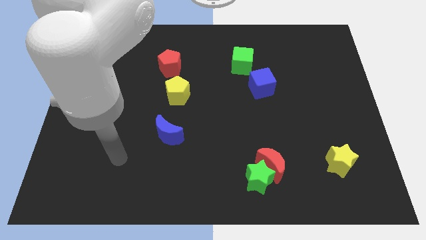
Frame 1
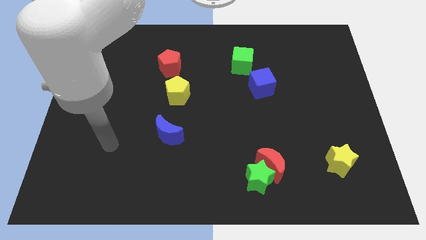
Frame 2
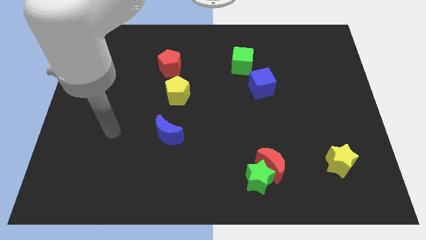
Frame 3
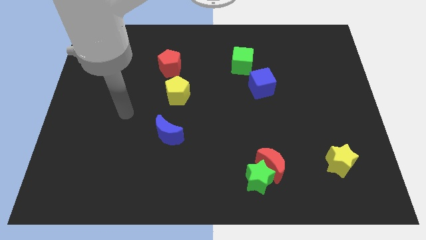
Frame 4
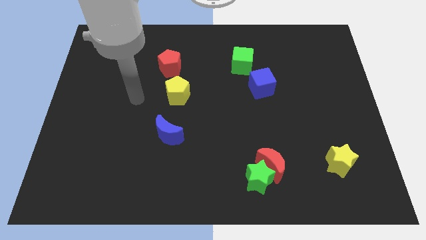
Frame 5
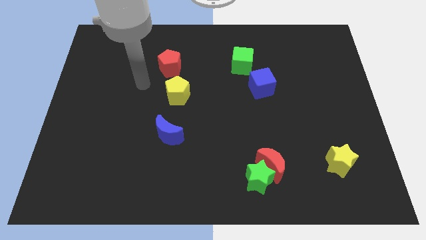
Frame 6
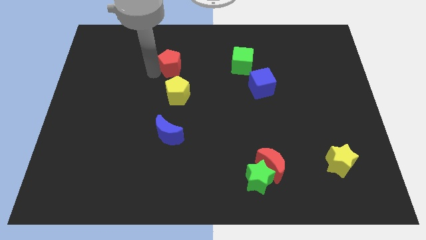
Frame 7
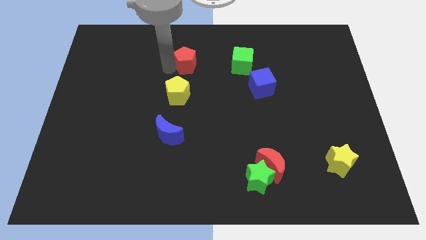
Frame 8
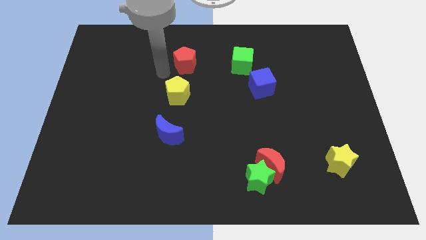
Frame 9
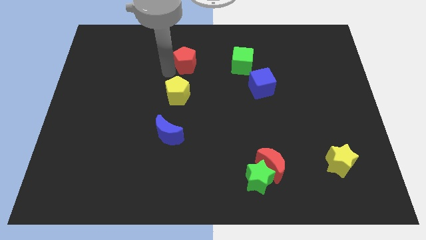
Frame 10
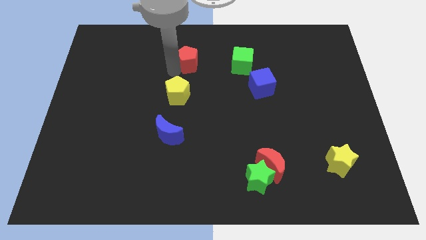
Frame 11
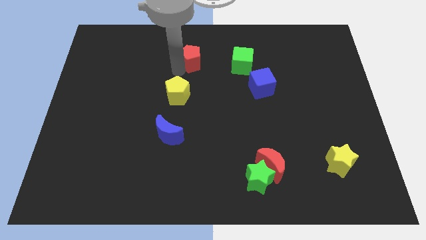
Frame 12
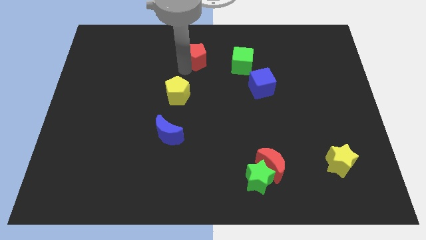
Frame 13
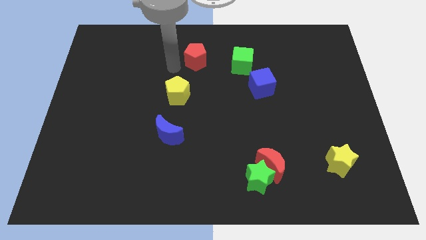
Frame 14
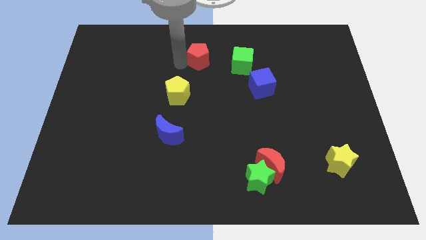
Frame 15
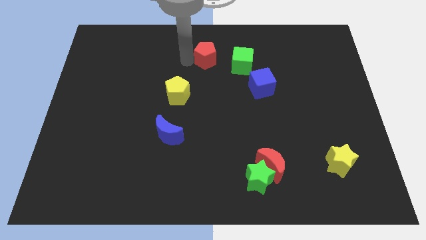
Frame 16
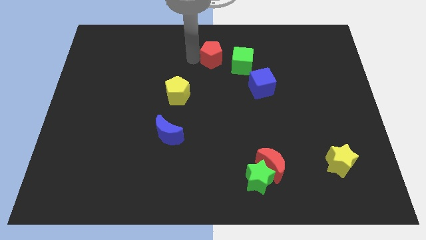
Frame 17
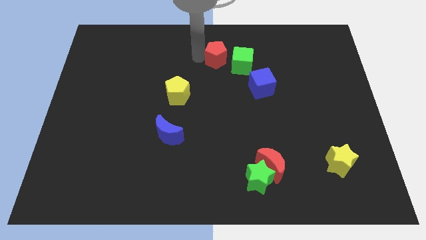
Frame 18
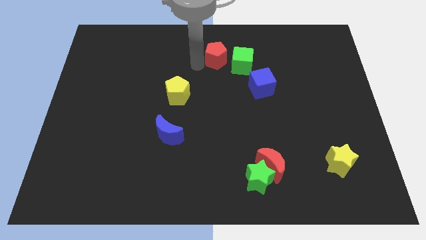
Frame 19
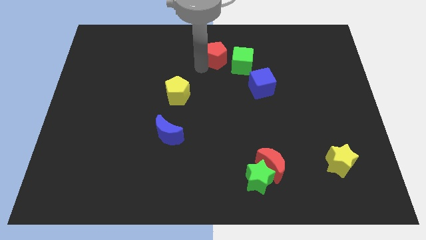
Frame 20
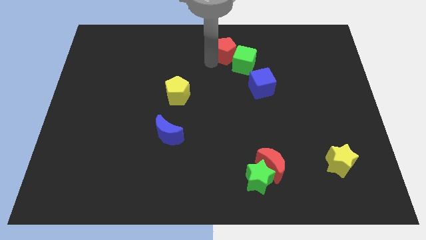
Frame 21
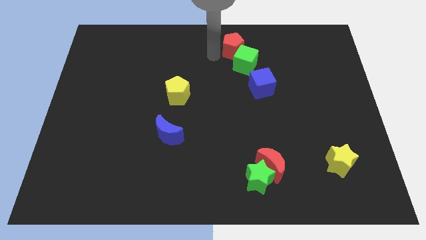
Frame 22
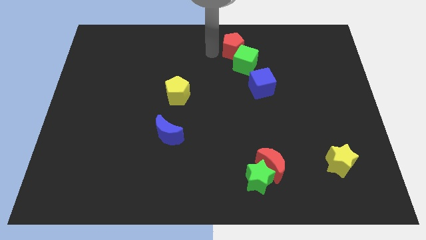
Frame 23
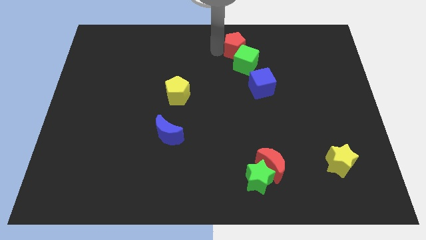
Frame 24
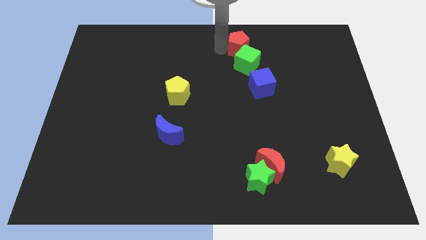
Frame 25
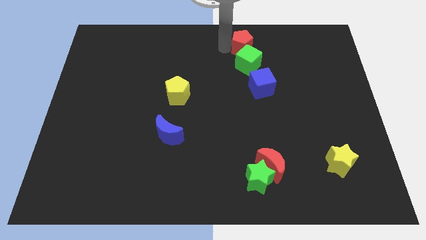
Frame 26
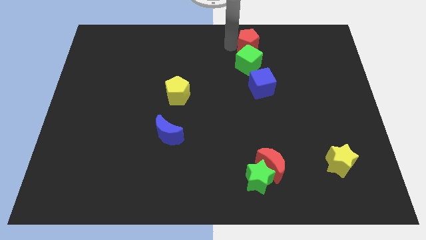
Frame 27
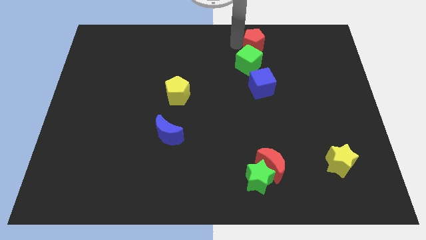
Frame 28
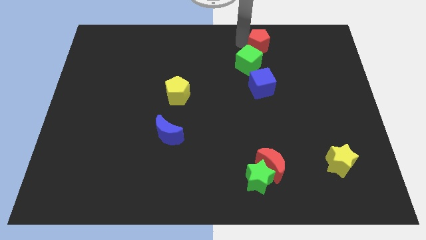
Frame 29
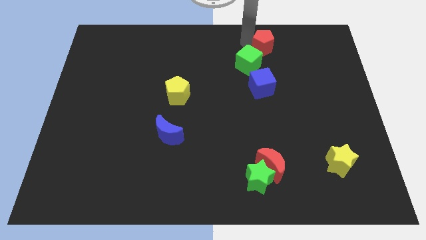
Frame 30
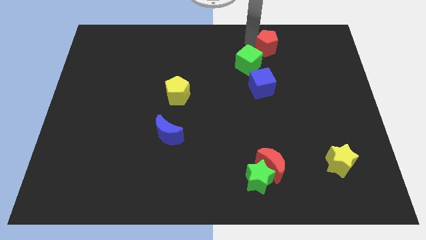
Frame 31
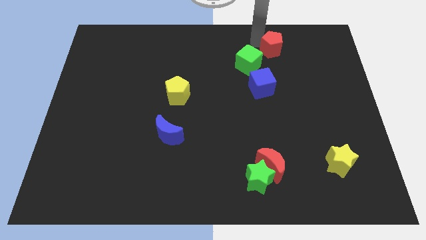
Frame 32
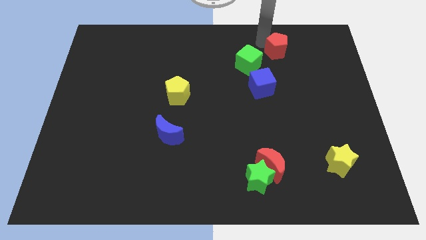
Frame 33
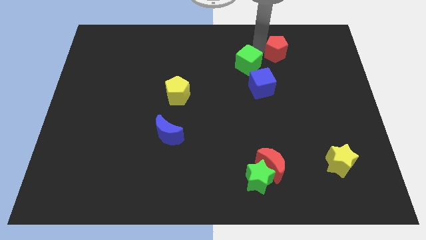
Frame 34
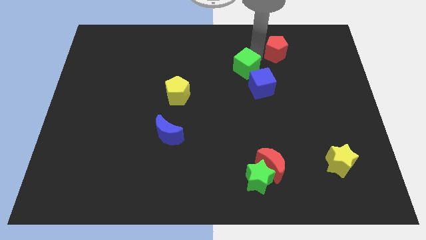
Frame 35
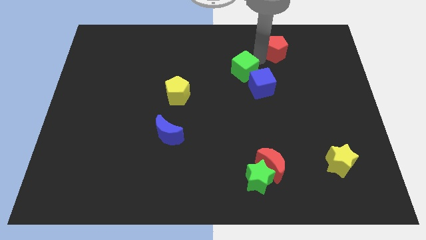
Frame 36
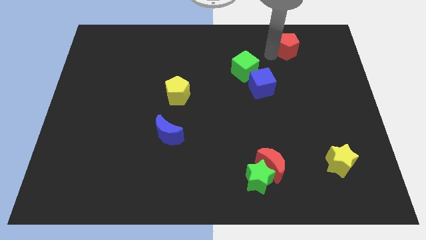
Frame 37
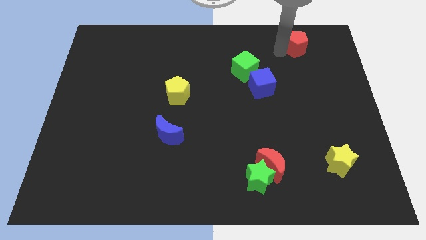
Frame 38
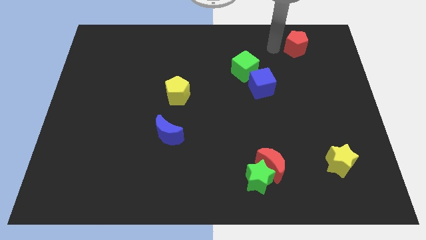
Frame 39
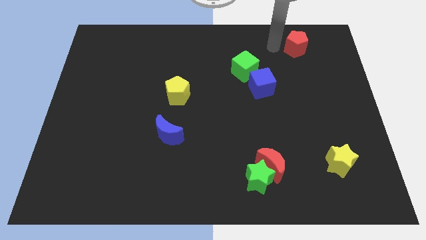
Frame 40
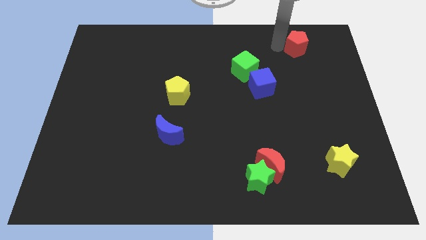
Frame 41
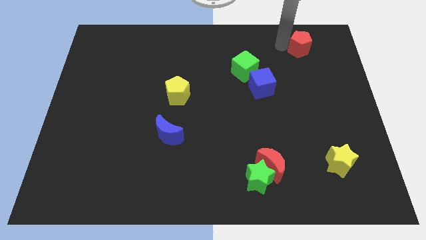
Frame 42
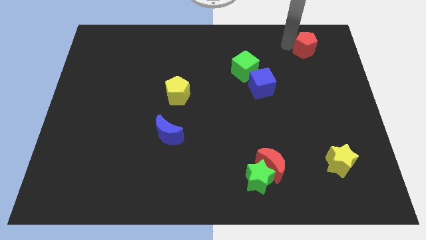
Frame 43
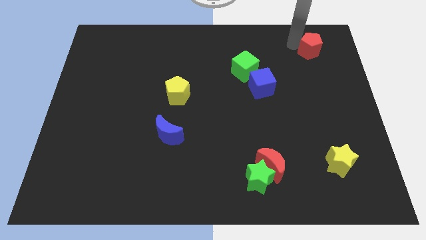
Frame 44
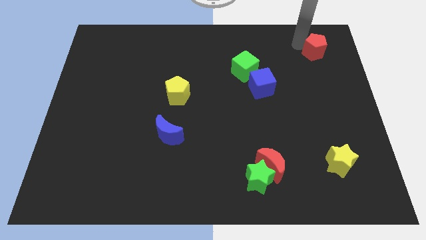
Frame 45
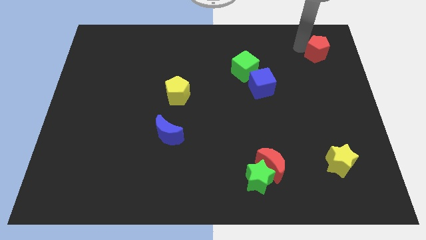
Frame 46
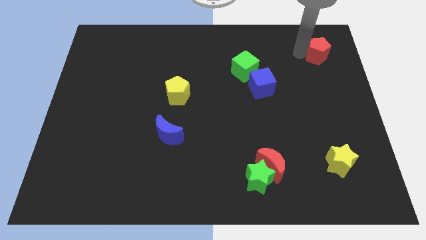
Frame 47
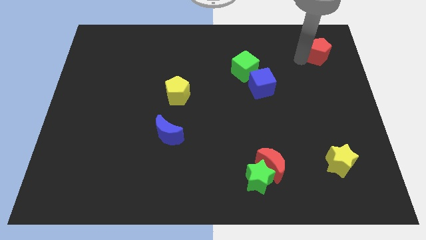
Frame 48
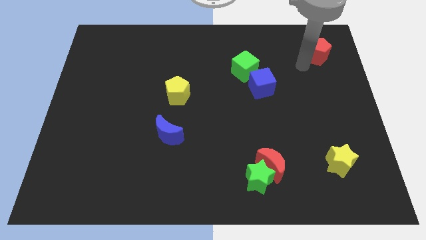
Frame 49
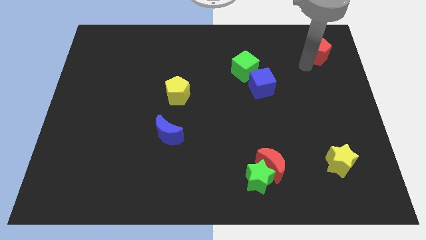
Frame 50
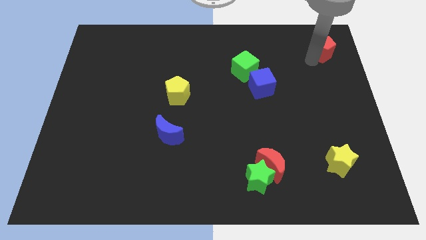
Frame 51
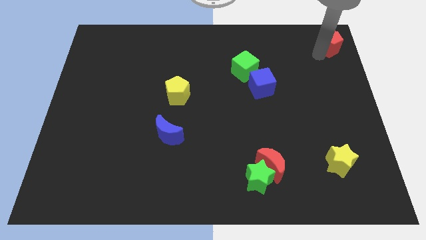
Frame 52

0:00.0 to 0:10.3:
push the red pentagon to the upper right corner

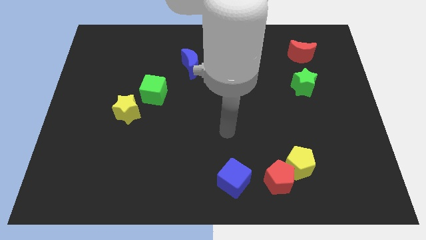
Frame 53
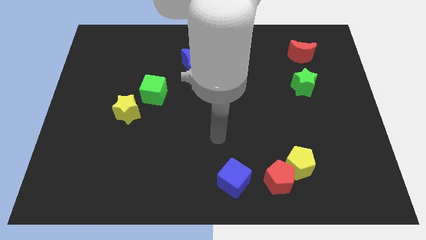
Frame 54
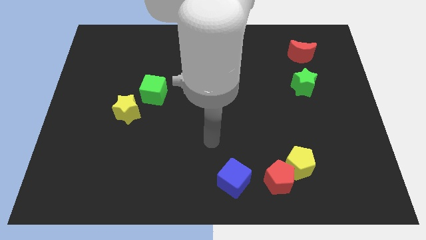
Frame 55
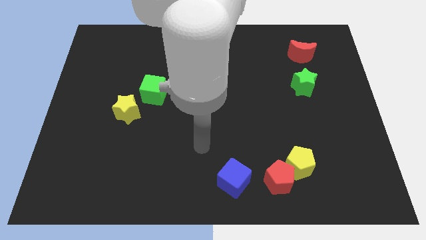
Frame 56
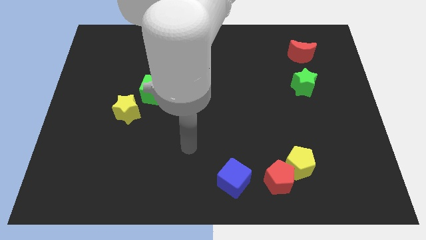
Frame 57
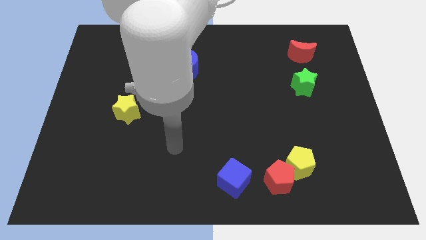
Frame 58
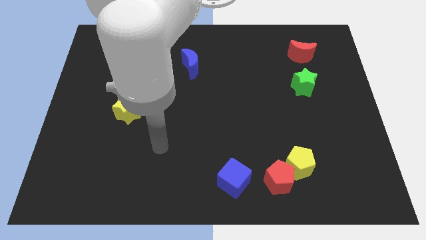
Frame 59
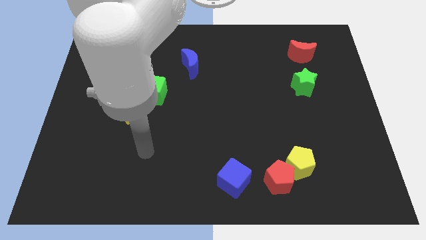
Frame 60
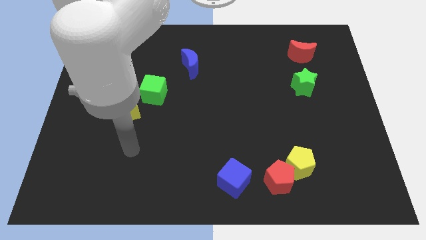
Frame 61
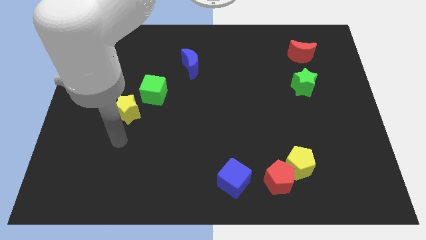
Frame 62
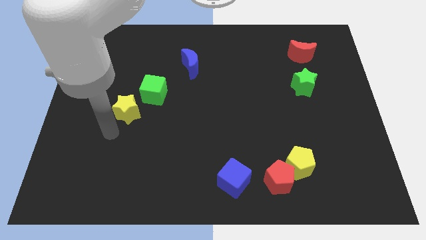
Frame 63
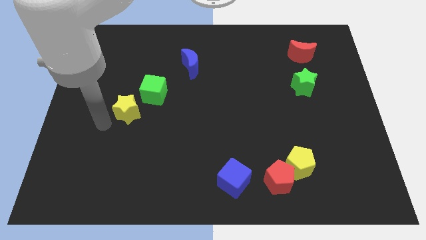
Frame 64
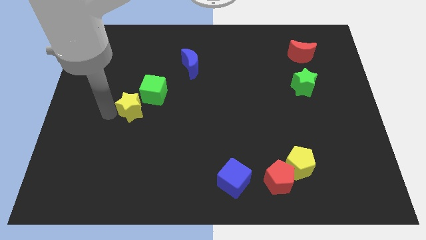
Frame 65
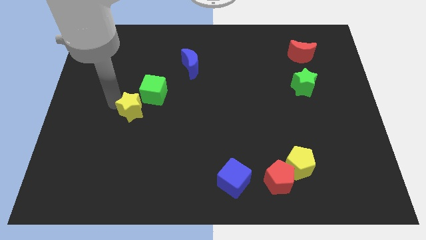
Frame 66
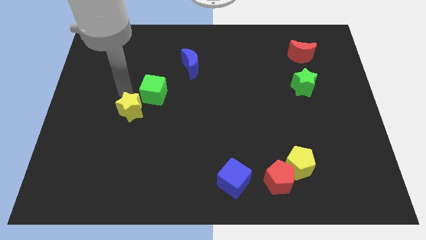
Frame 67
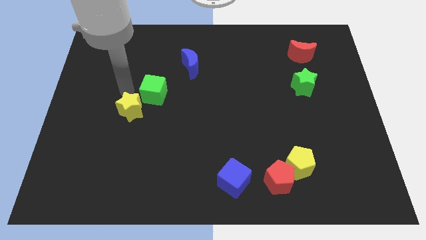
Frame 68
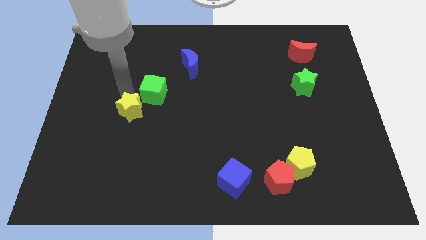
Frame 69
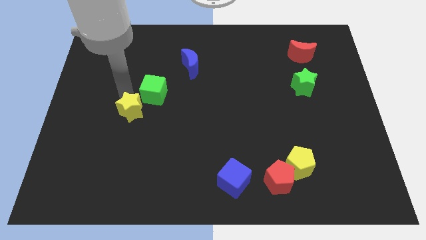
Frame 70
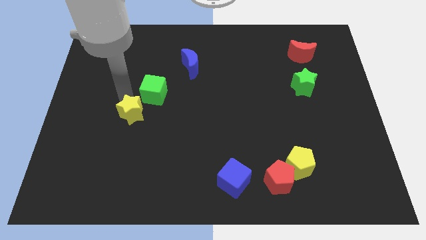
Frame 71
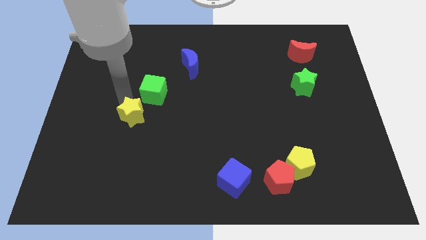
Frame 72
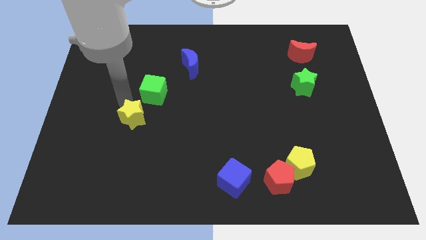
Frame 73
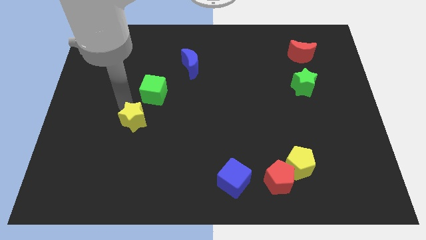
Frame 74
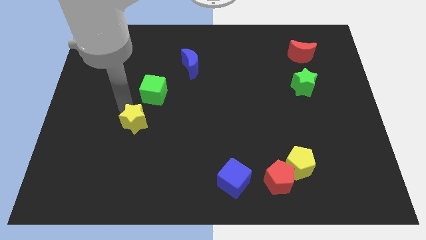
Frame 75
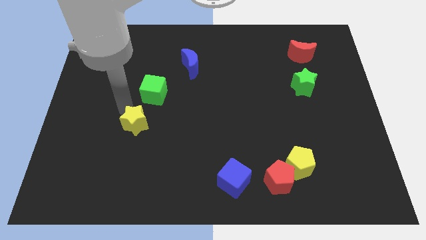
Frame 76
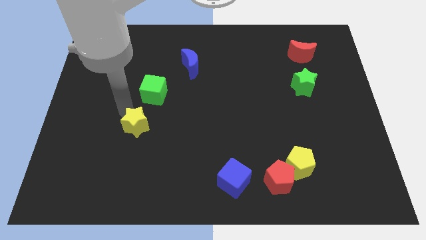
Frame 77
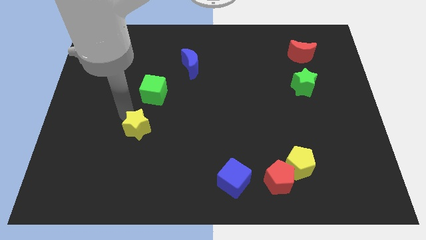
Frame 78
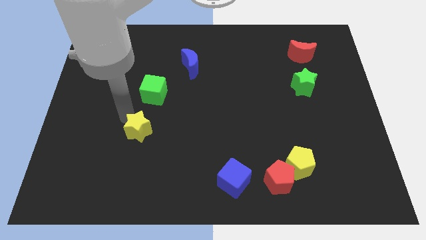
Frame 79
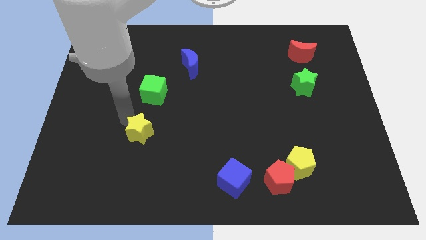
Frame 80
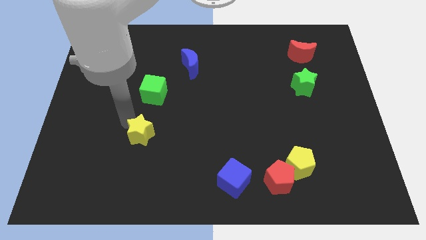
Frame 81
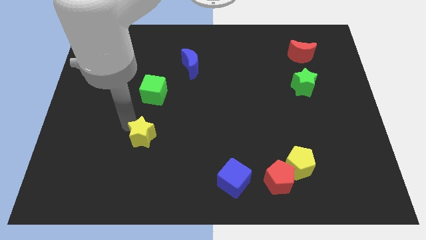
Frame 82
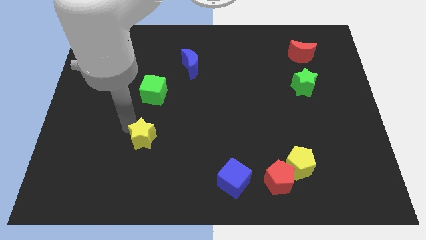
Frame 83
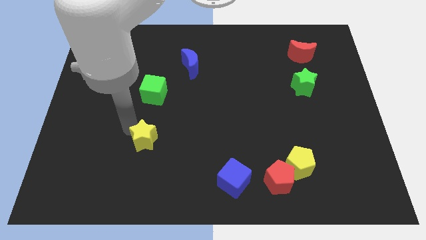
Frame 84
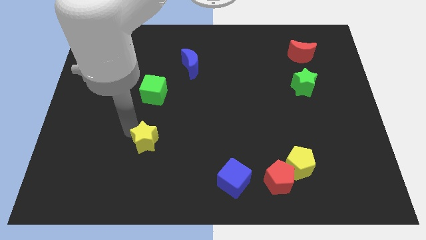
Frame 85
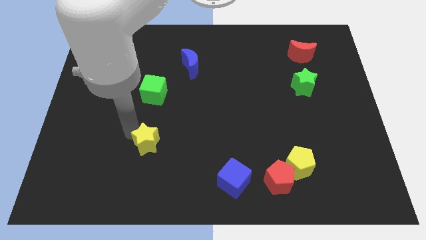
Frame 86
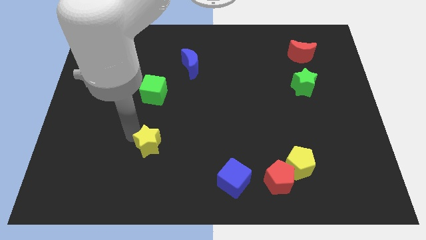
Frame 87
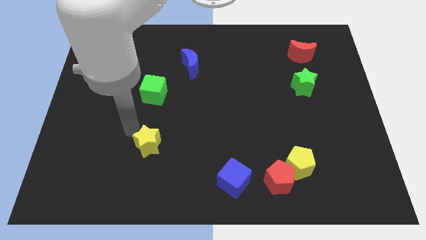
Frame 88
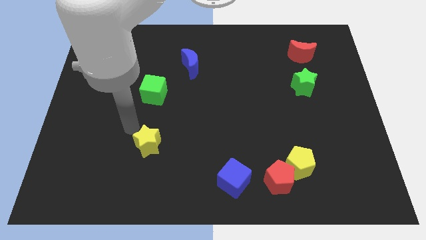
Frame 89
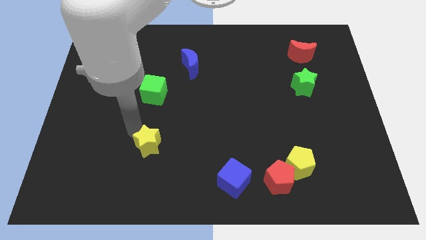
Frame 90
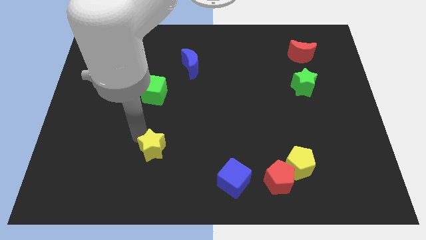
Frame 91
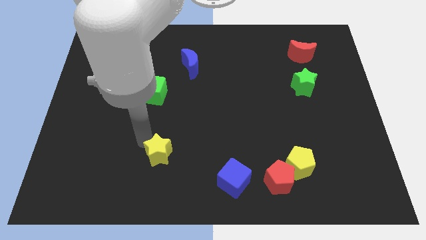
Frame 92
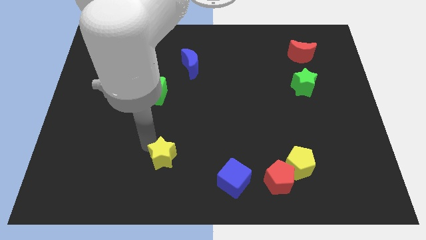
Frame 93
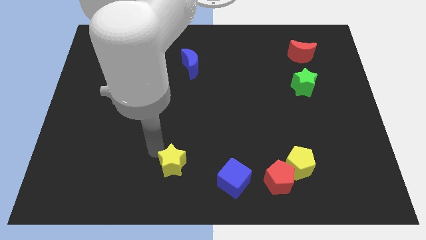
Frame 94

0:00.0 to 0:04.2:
put the yellow star to the bottom side
